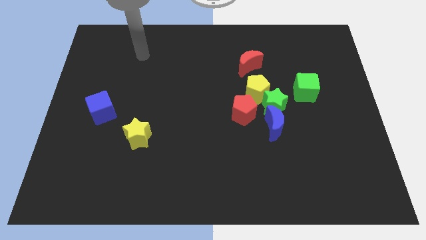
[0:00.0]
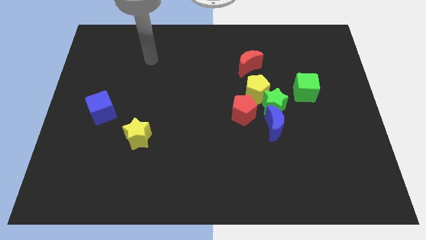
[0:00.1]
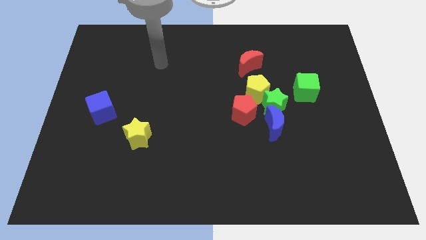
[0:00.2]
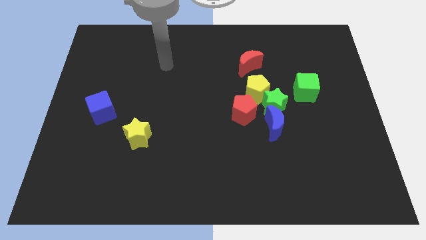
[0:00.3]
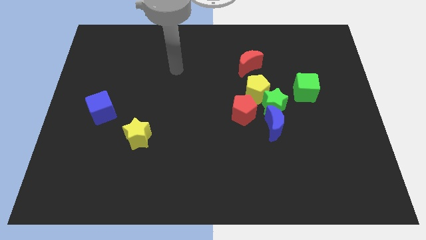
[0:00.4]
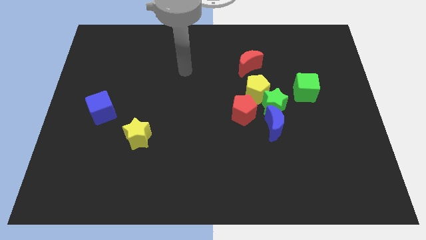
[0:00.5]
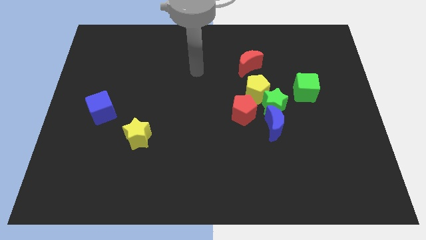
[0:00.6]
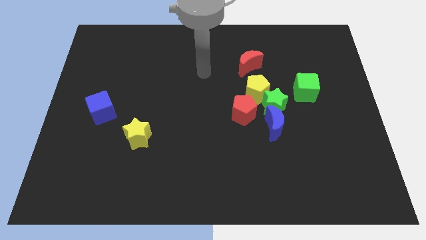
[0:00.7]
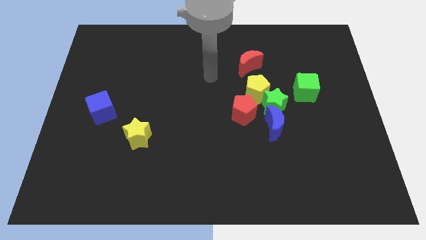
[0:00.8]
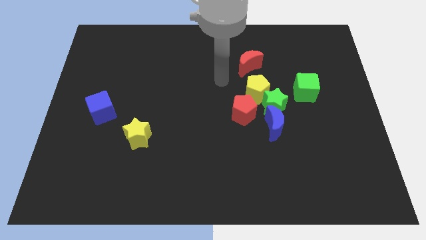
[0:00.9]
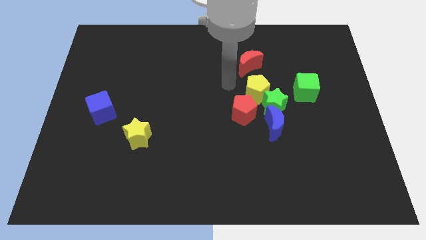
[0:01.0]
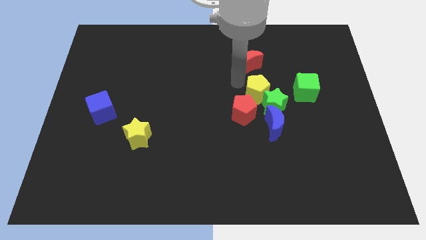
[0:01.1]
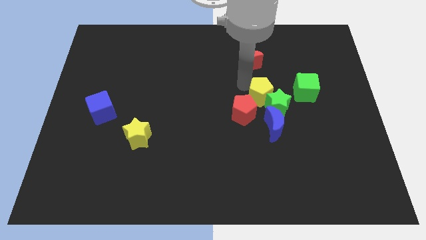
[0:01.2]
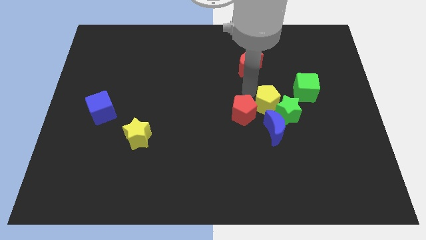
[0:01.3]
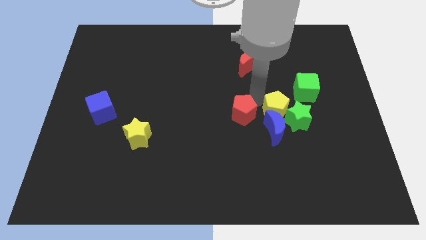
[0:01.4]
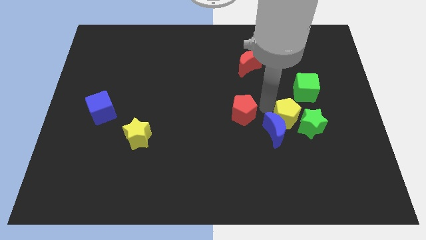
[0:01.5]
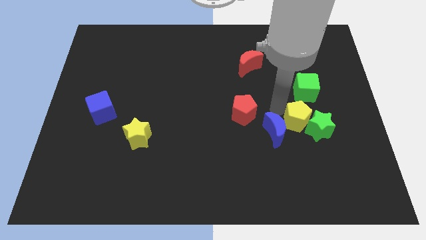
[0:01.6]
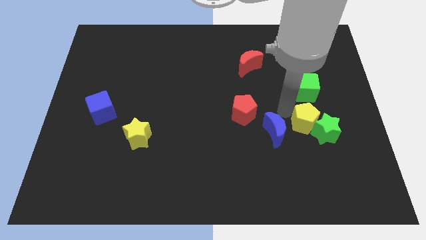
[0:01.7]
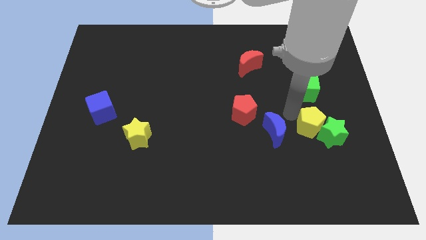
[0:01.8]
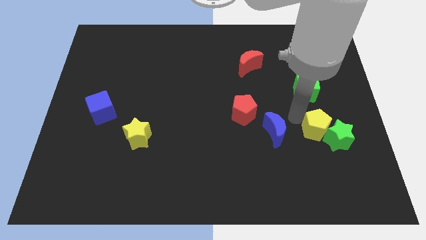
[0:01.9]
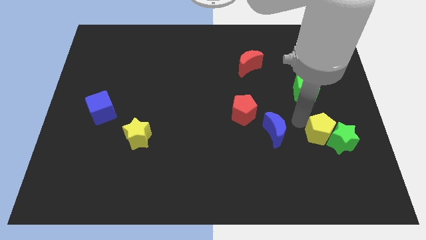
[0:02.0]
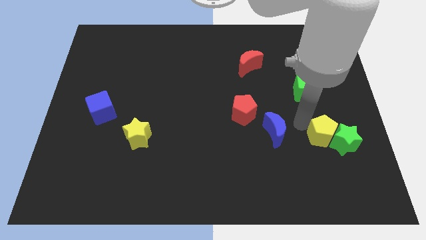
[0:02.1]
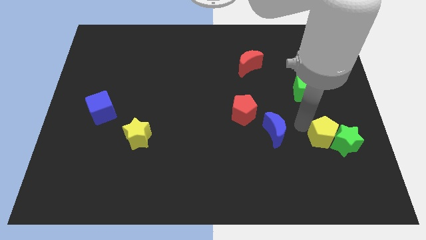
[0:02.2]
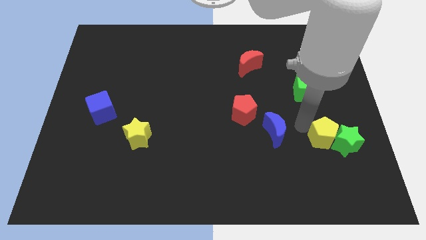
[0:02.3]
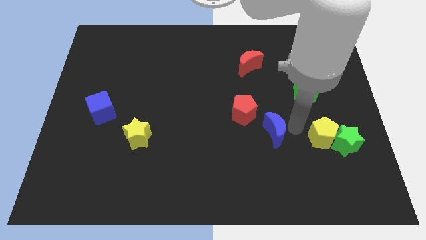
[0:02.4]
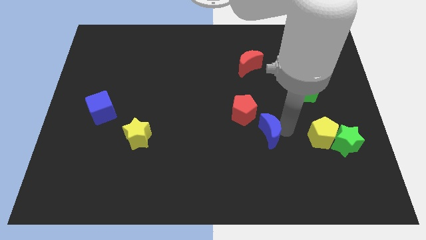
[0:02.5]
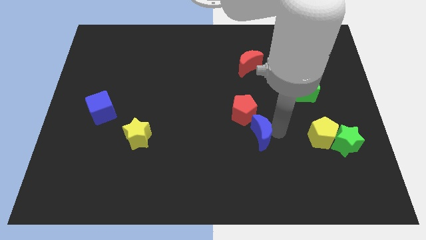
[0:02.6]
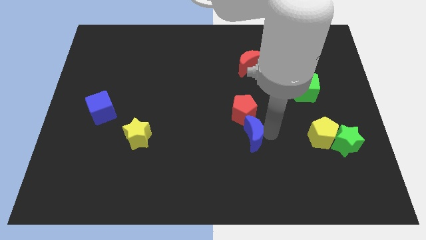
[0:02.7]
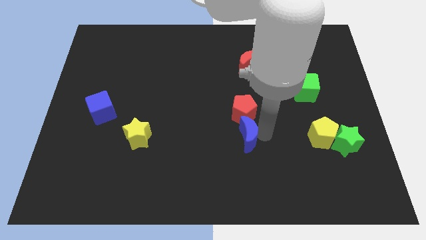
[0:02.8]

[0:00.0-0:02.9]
pull the blue moon apart from the green star and red pentagon

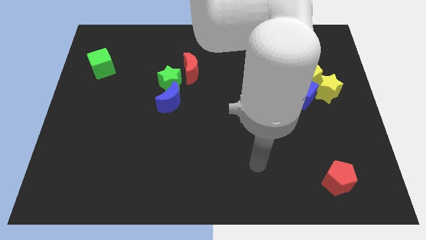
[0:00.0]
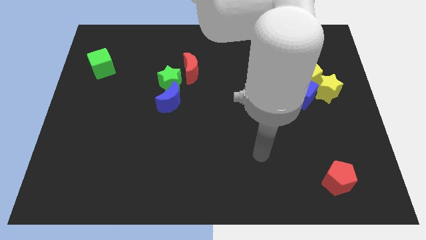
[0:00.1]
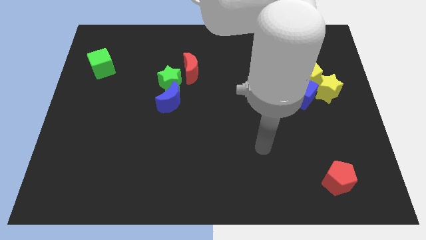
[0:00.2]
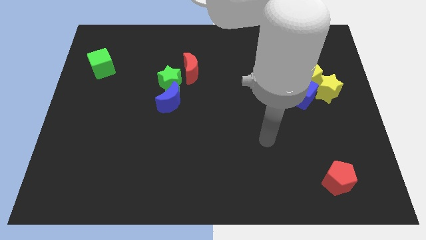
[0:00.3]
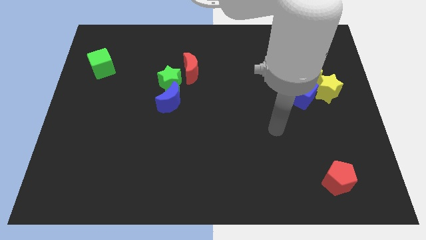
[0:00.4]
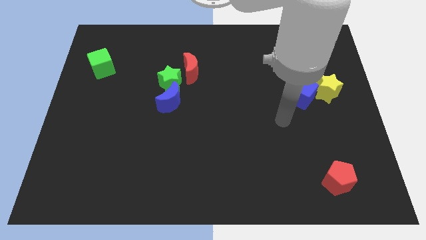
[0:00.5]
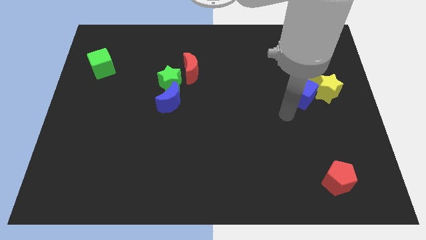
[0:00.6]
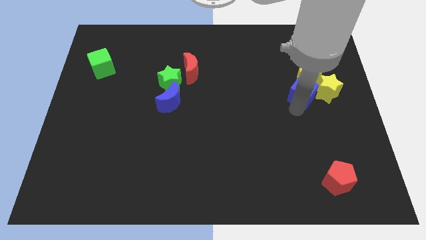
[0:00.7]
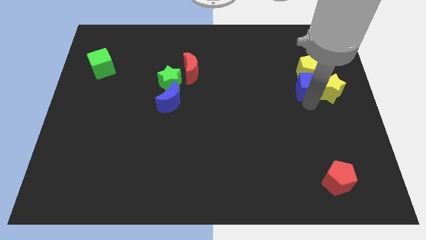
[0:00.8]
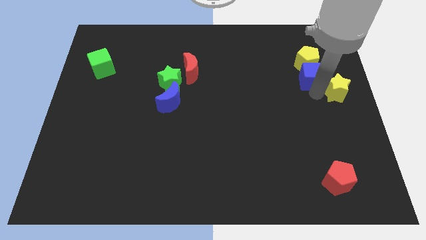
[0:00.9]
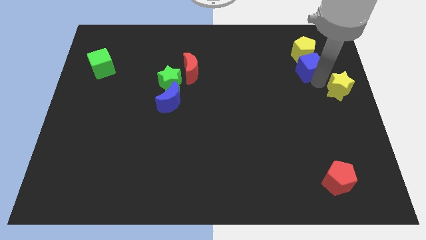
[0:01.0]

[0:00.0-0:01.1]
separate the yellow pentagon from the yellow star and blue cube

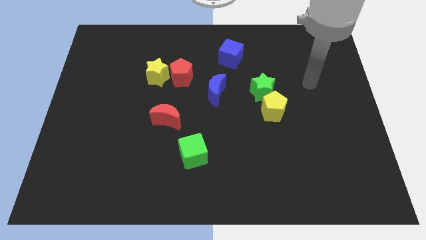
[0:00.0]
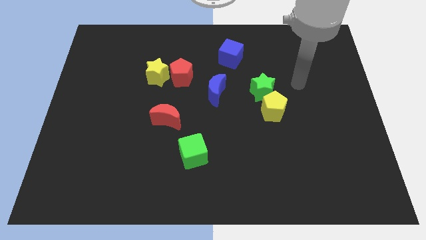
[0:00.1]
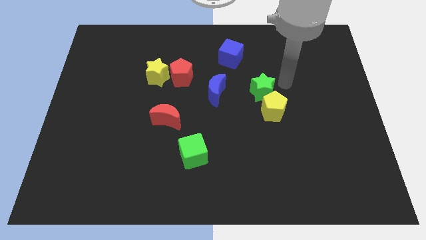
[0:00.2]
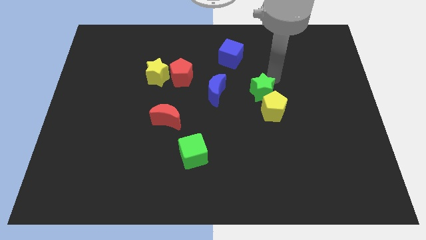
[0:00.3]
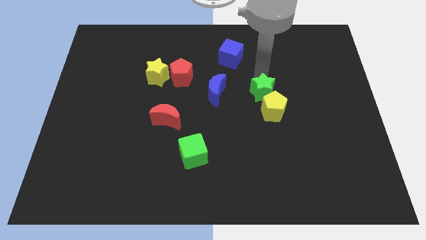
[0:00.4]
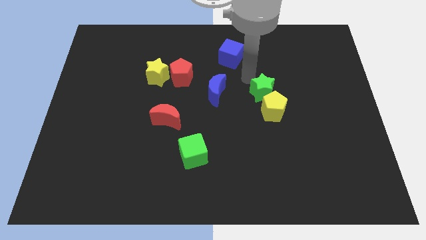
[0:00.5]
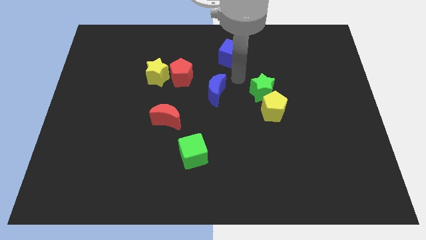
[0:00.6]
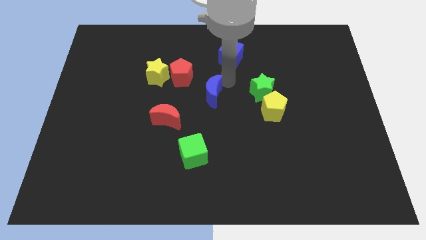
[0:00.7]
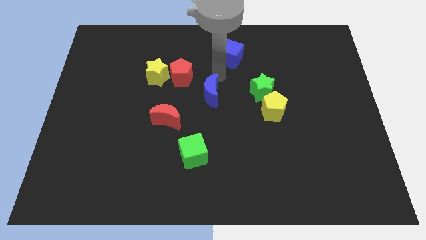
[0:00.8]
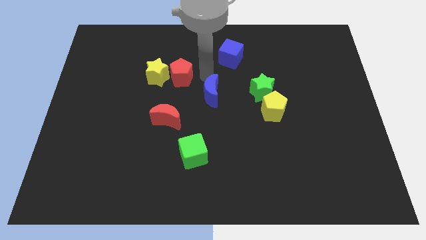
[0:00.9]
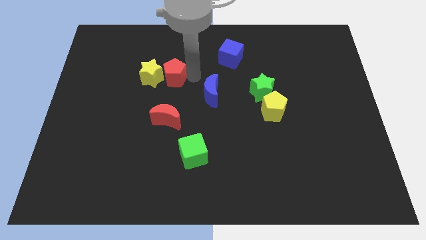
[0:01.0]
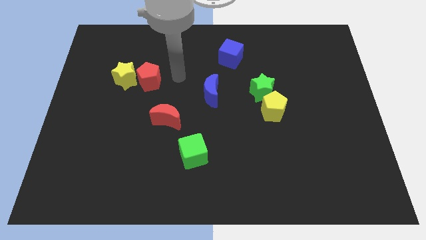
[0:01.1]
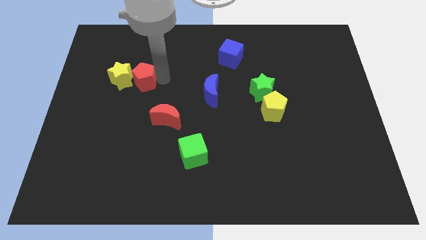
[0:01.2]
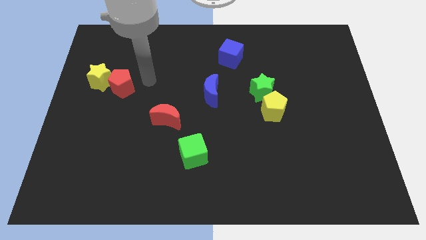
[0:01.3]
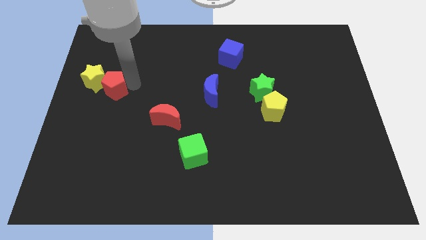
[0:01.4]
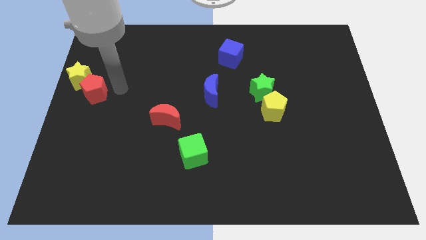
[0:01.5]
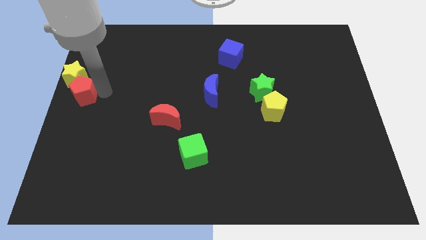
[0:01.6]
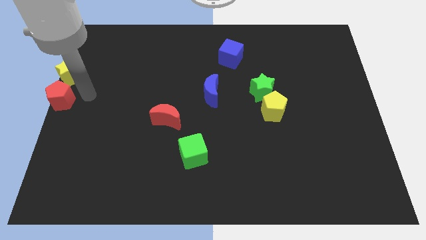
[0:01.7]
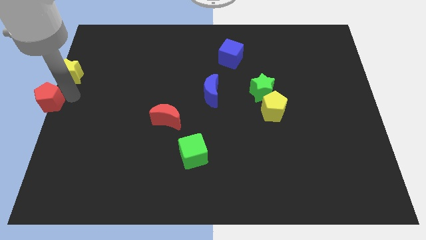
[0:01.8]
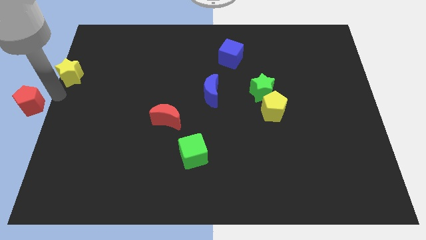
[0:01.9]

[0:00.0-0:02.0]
separate the yellow star from the red pentagon

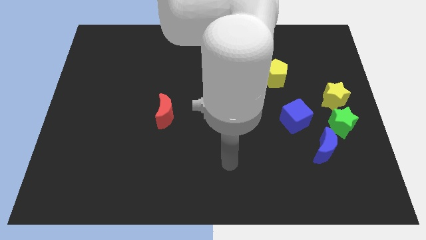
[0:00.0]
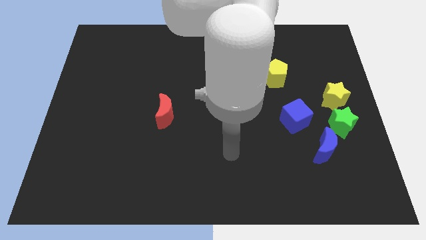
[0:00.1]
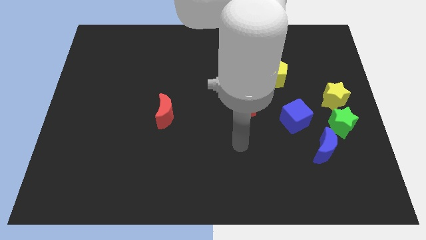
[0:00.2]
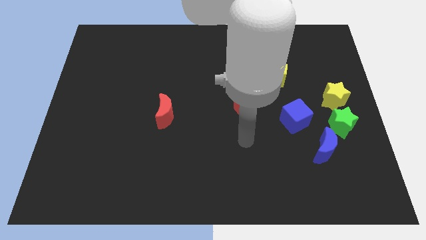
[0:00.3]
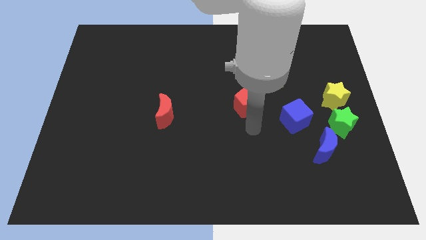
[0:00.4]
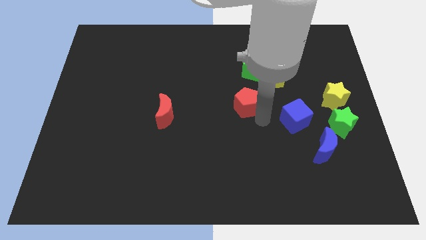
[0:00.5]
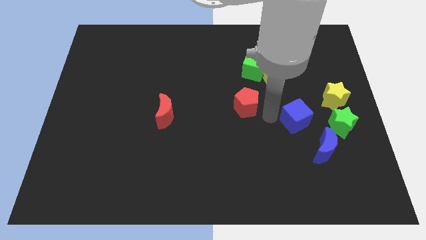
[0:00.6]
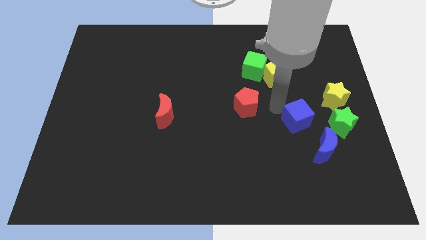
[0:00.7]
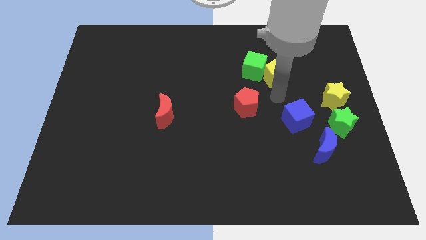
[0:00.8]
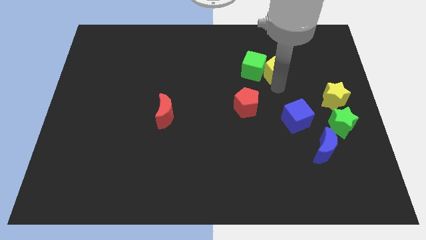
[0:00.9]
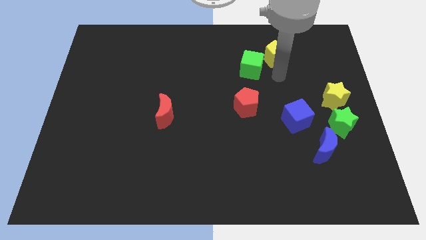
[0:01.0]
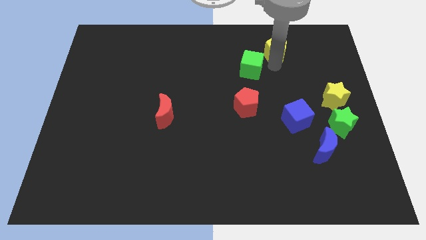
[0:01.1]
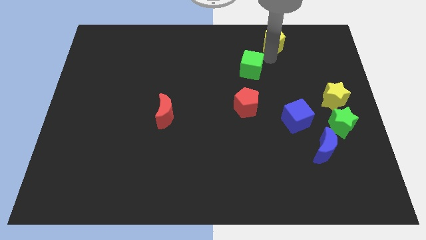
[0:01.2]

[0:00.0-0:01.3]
pull the green cube apart from the yellow pentagon

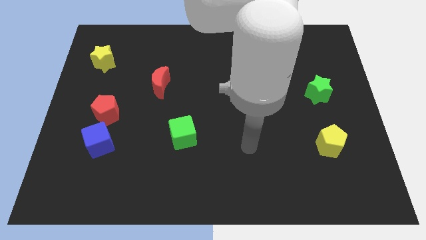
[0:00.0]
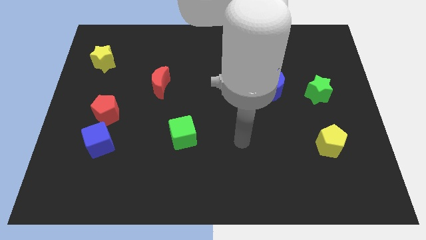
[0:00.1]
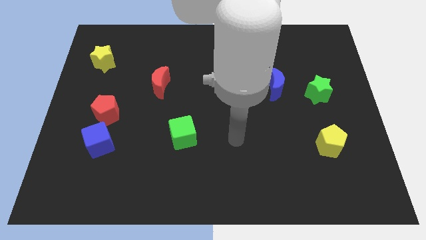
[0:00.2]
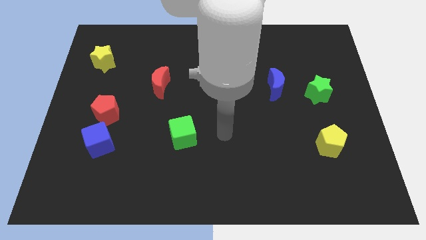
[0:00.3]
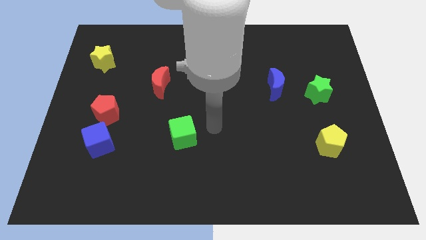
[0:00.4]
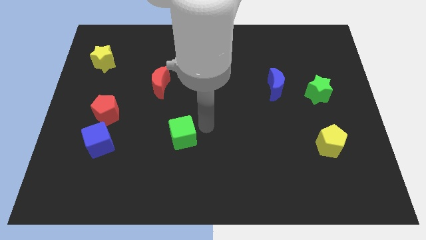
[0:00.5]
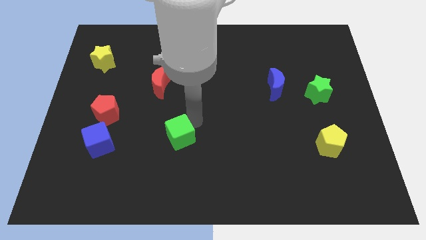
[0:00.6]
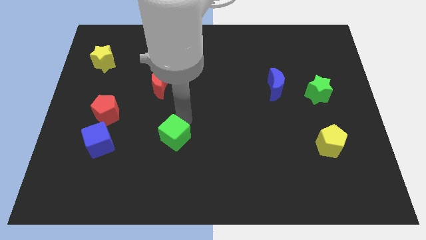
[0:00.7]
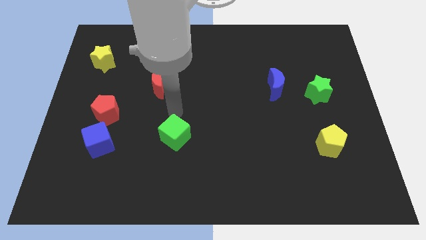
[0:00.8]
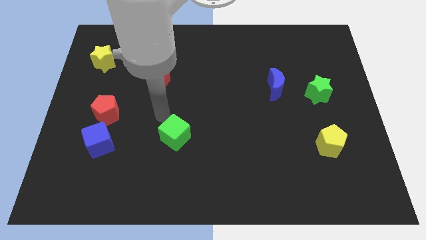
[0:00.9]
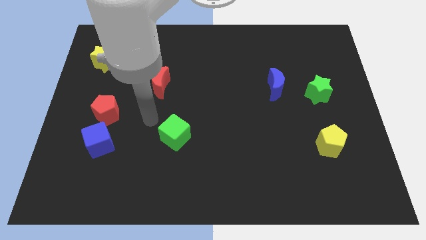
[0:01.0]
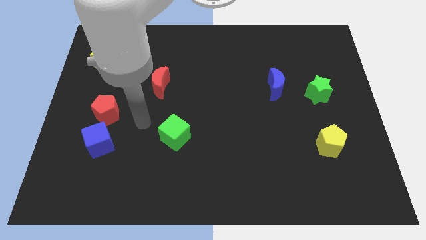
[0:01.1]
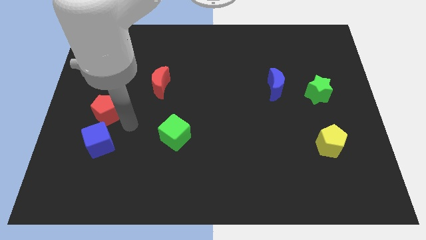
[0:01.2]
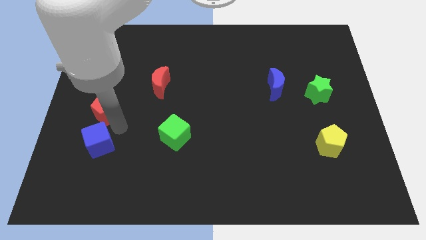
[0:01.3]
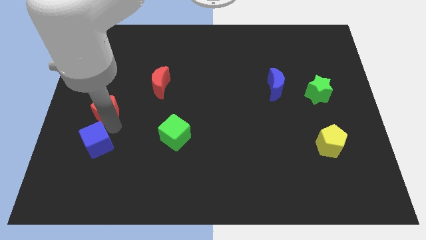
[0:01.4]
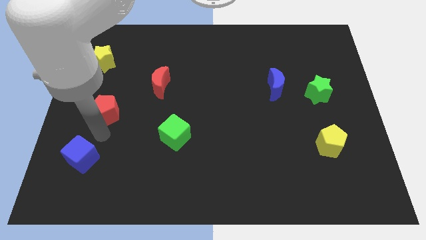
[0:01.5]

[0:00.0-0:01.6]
pull the red pentagon apart from the blue cube

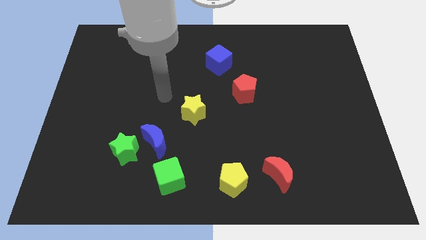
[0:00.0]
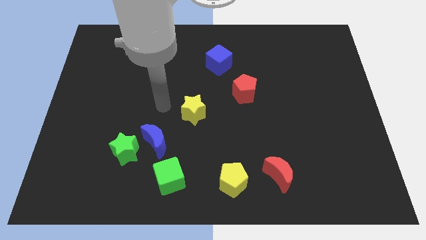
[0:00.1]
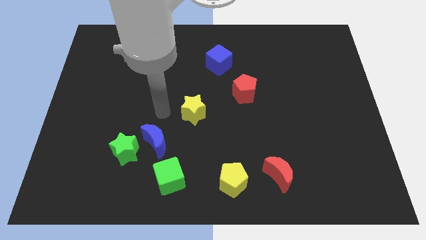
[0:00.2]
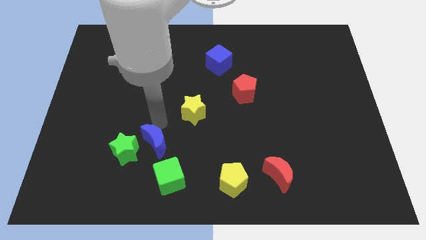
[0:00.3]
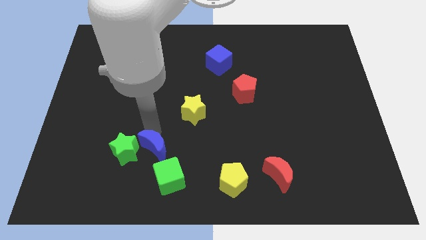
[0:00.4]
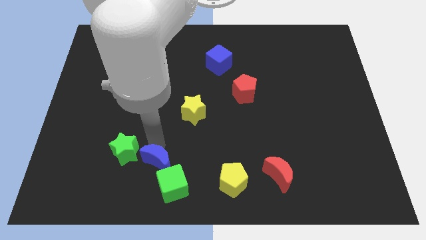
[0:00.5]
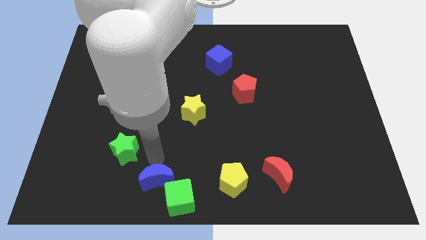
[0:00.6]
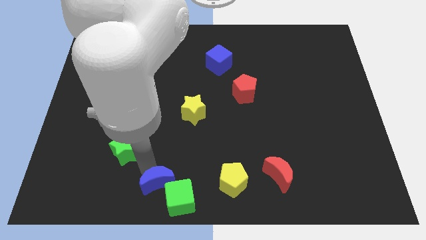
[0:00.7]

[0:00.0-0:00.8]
pull the green star apart from the blue moon
